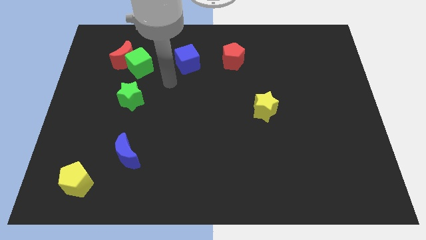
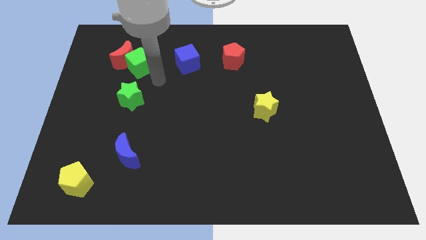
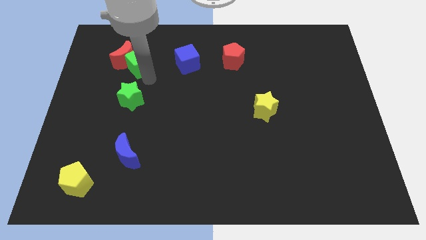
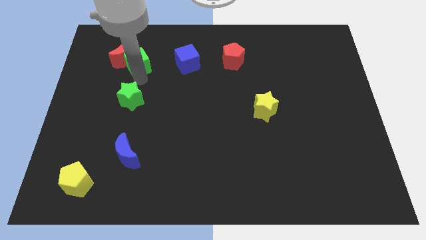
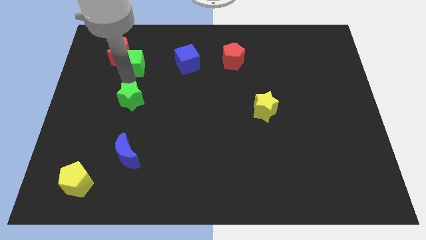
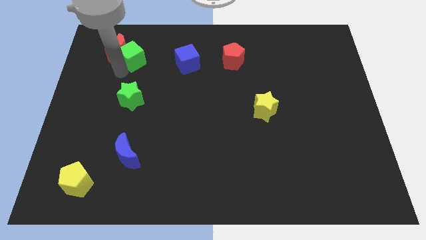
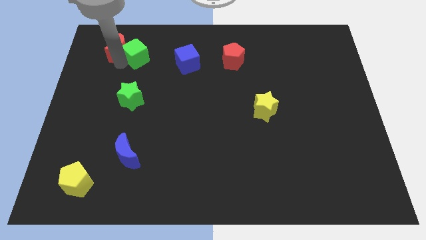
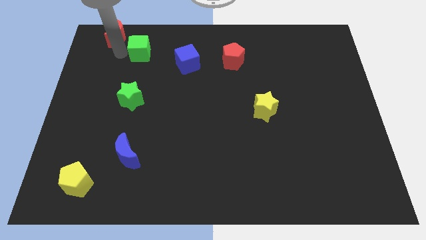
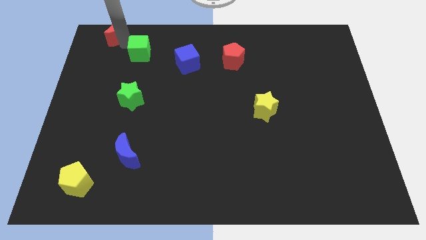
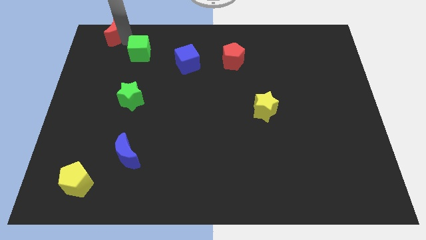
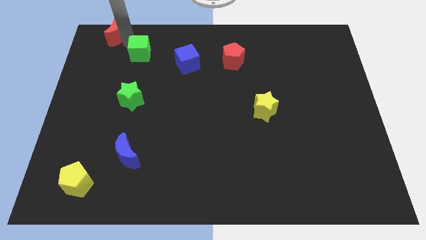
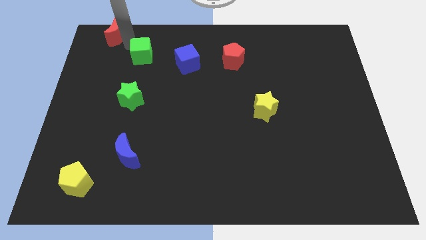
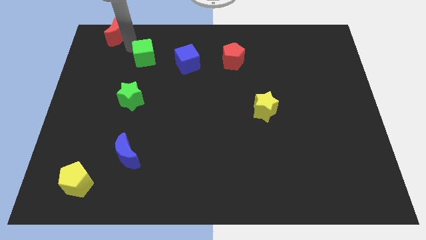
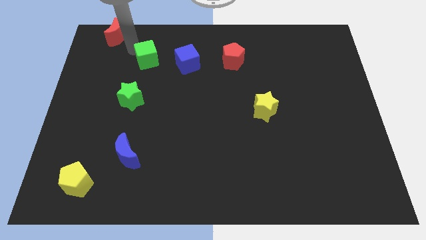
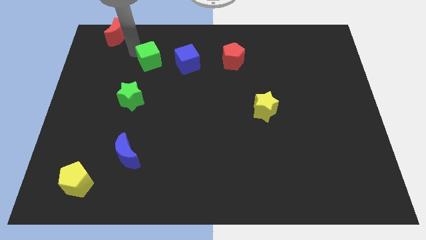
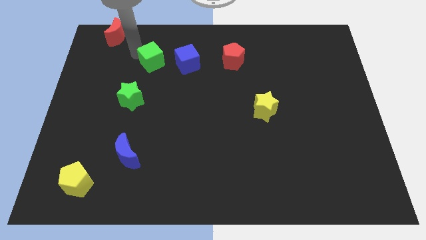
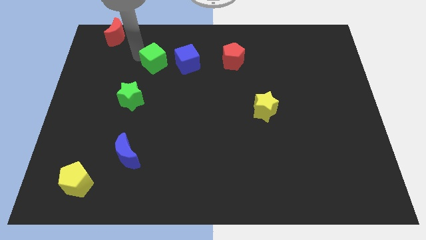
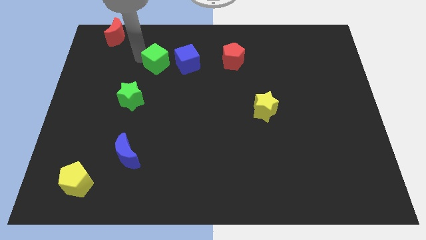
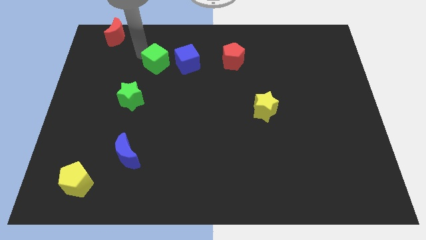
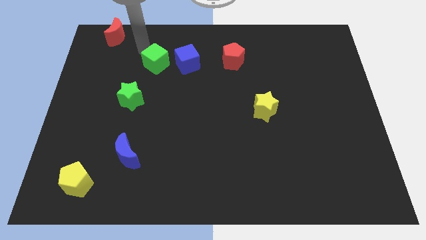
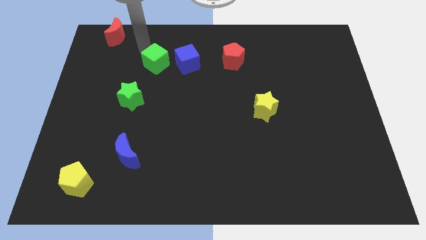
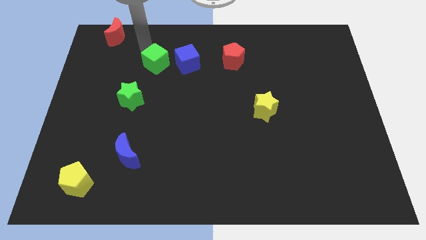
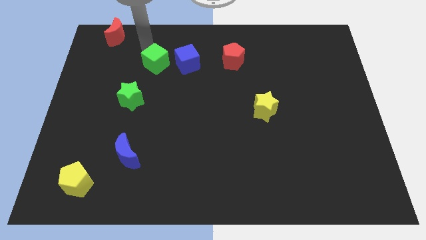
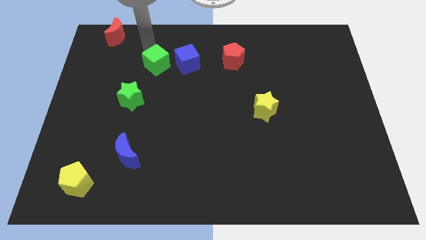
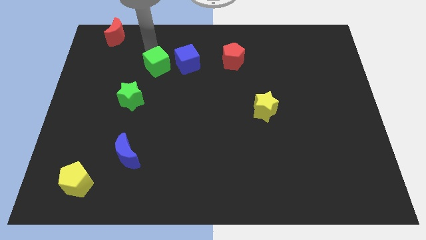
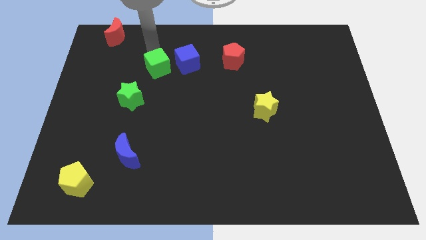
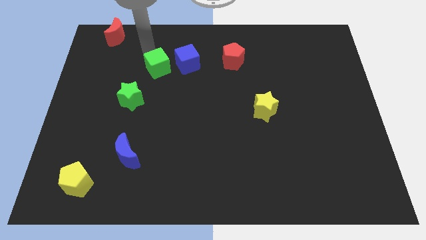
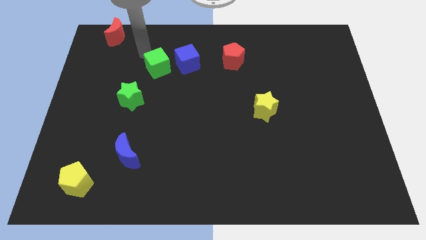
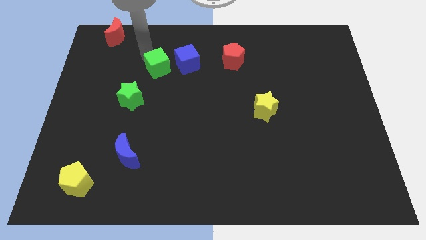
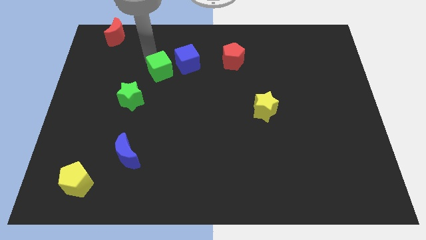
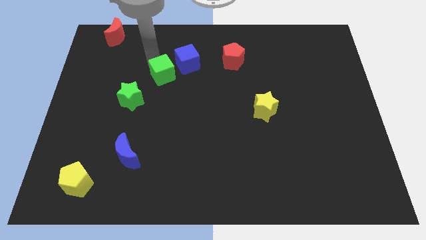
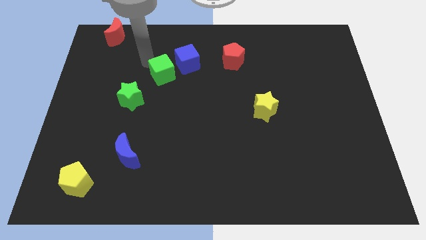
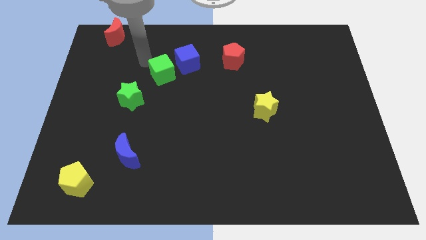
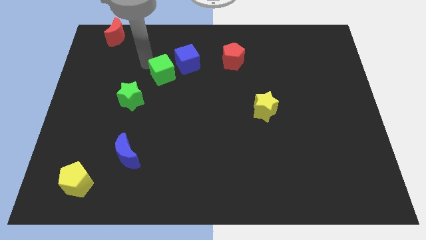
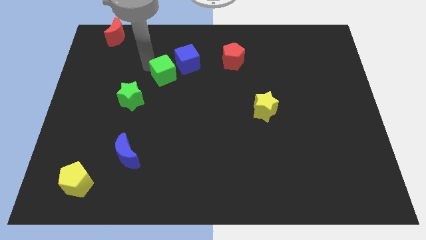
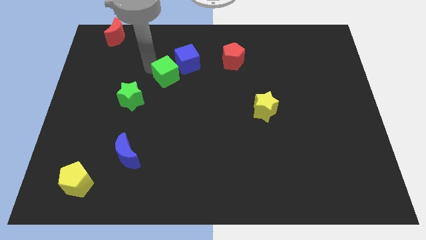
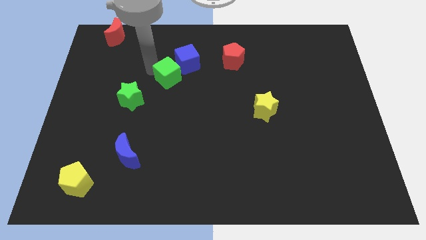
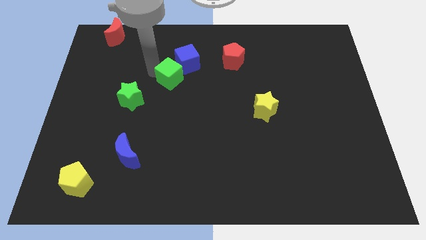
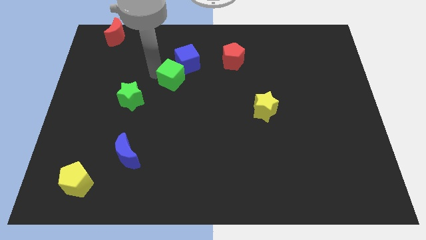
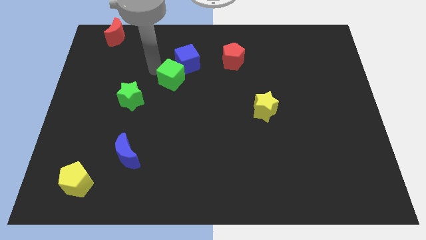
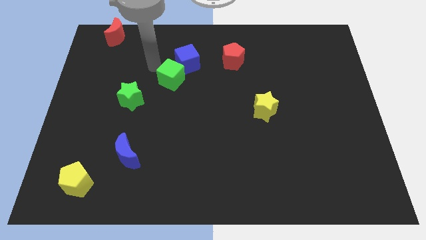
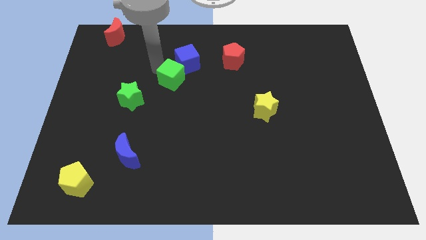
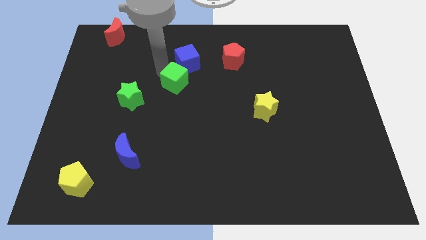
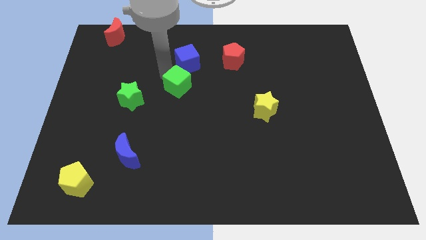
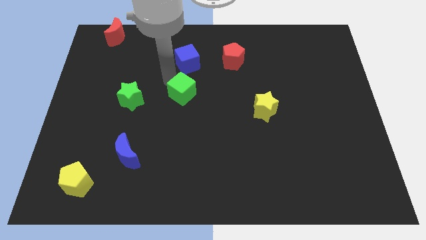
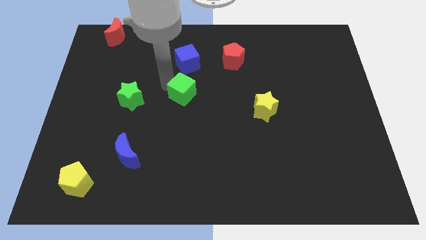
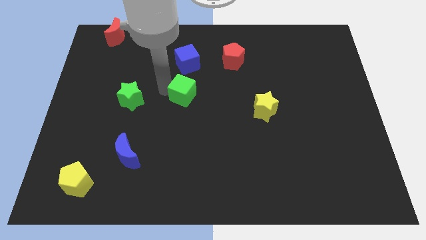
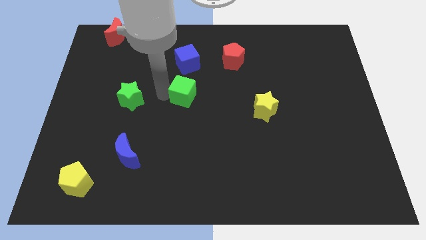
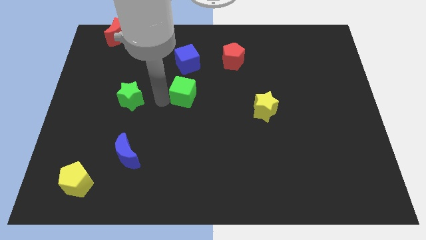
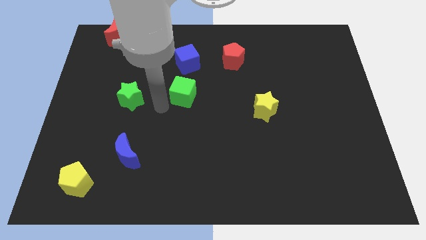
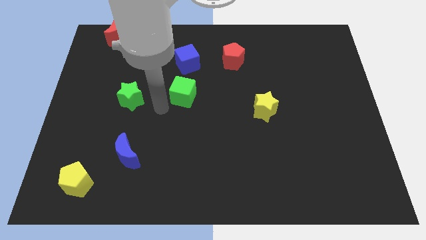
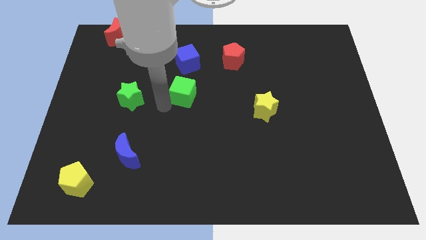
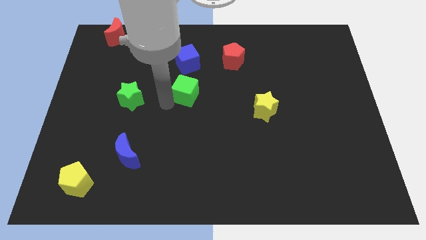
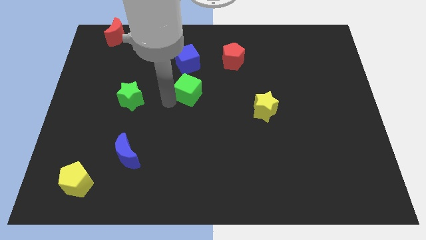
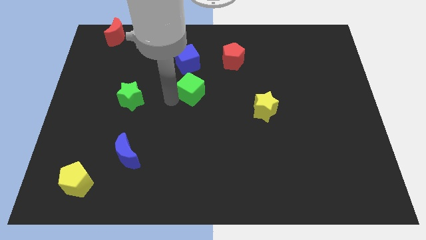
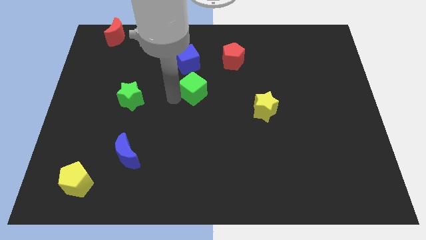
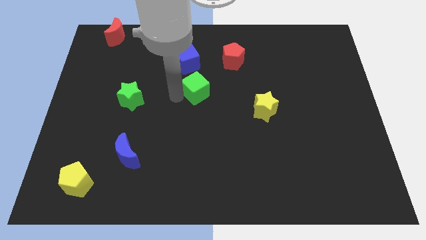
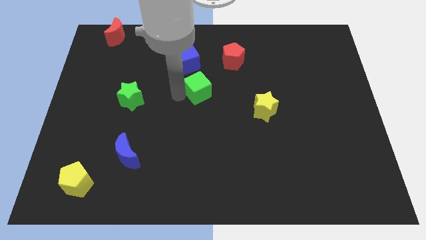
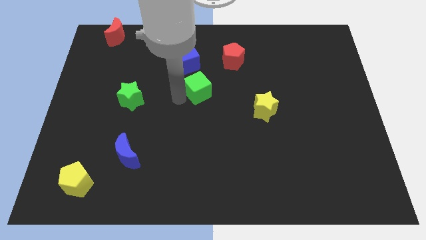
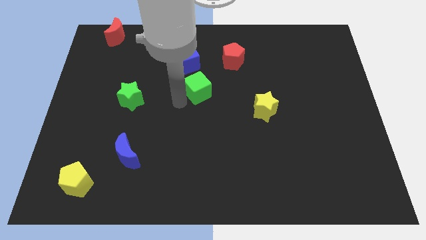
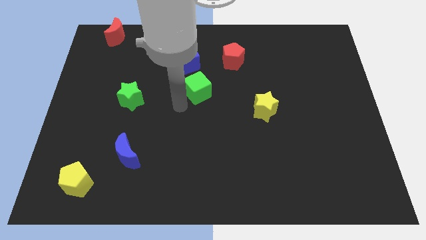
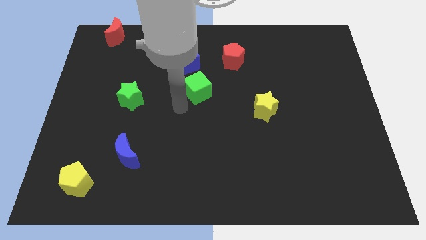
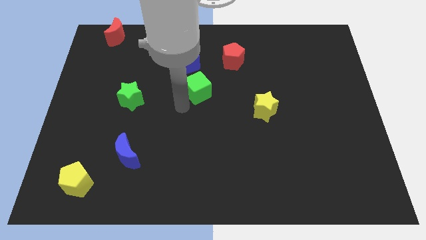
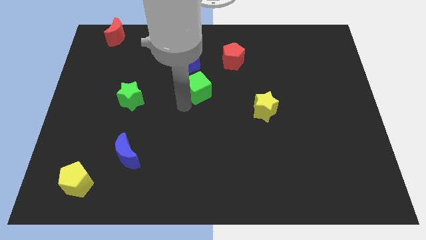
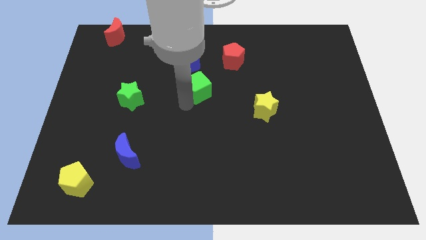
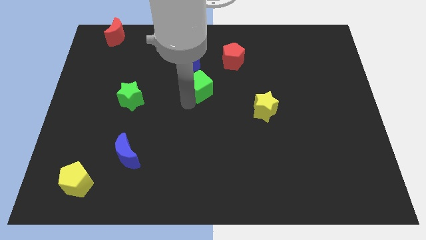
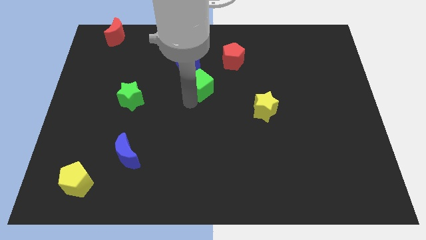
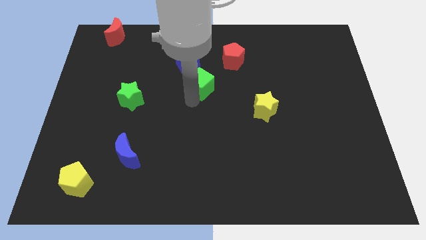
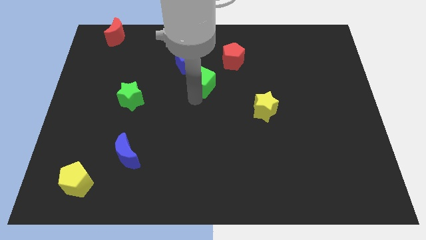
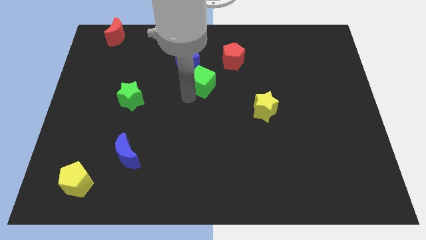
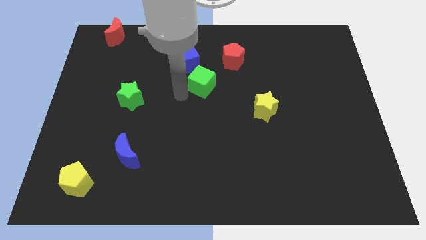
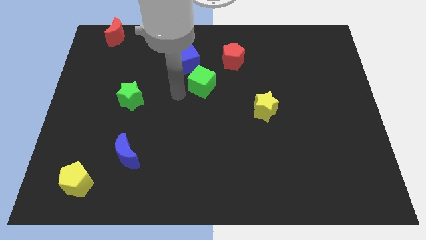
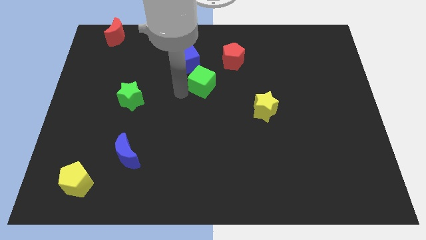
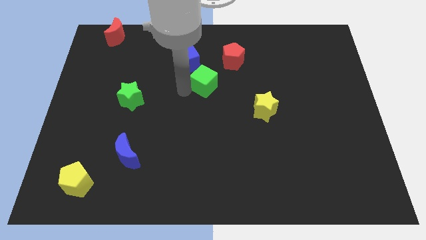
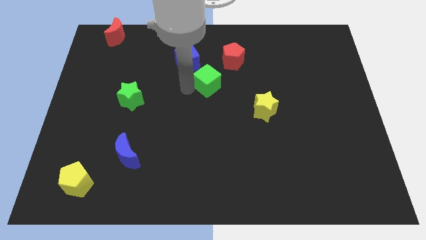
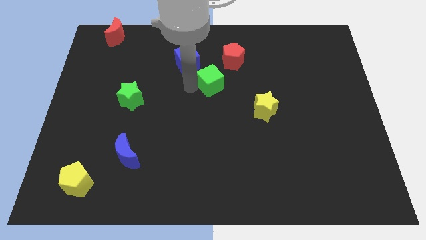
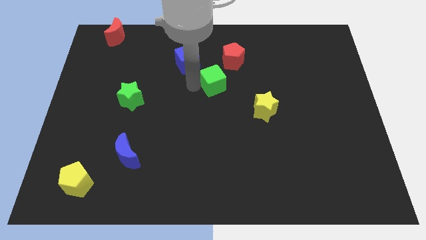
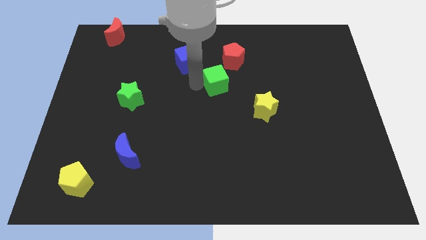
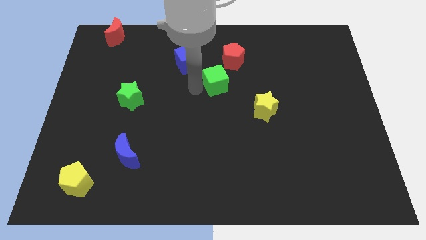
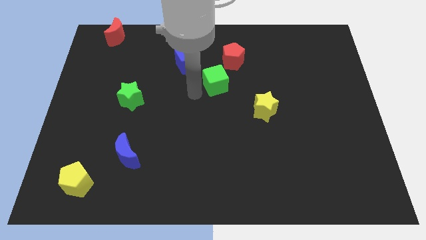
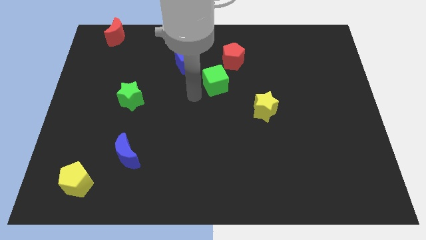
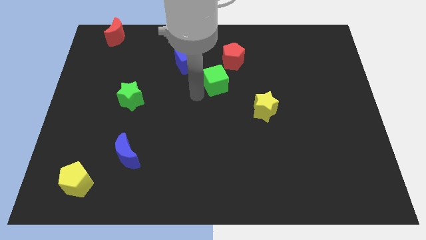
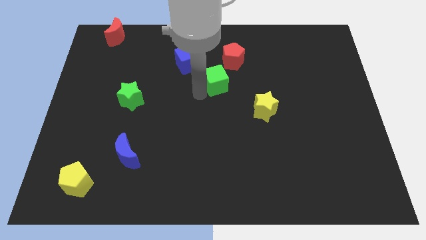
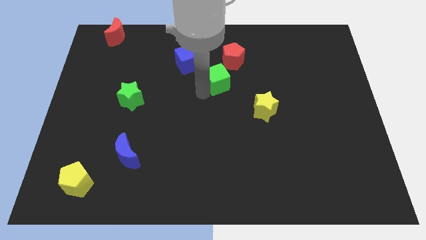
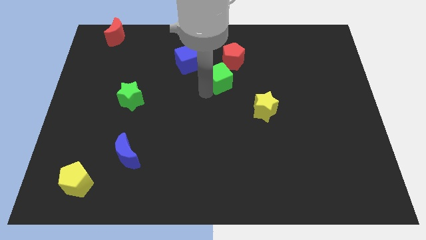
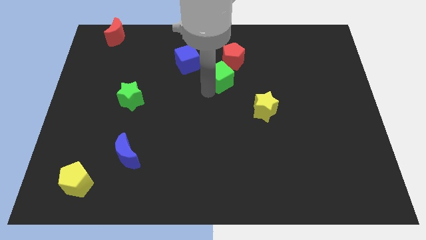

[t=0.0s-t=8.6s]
slide the green cube to the right
